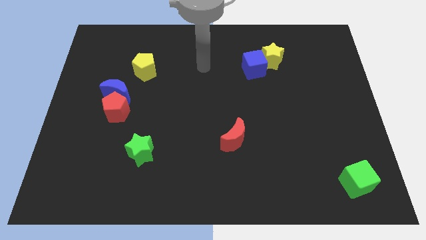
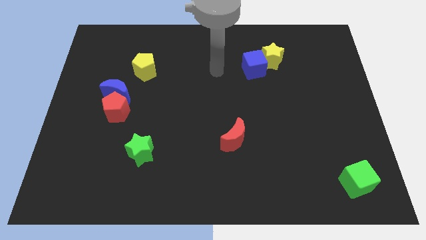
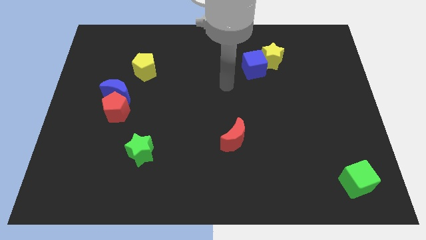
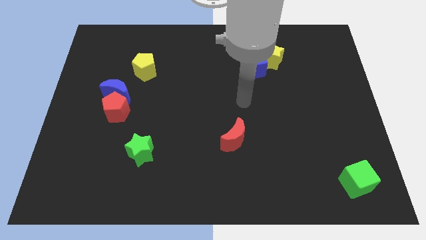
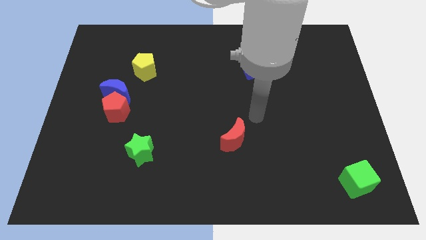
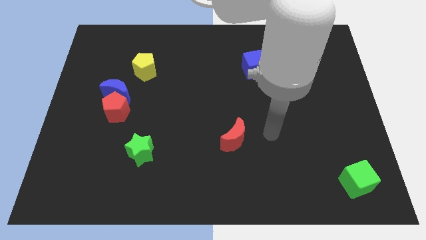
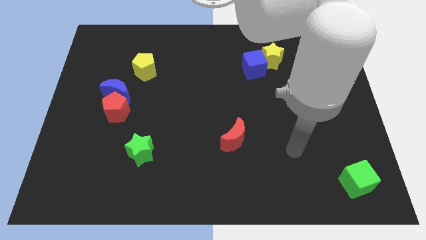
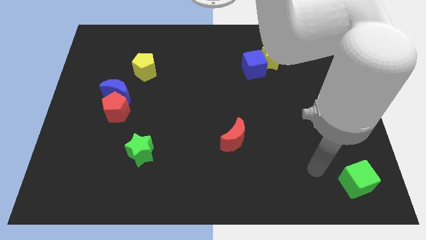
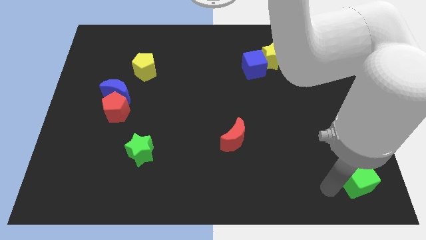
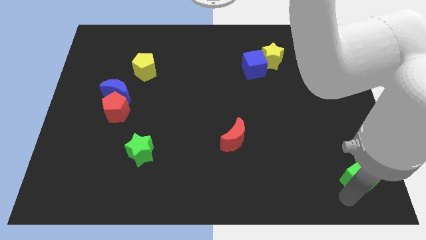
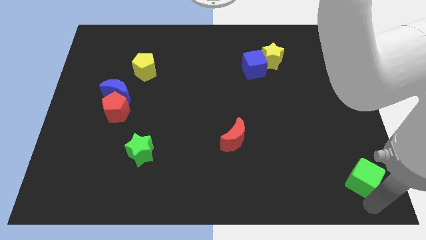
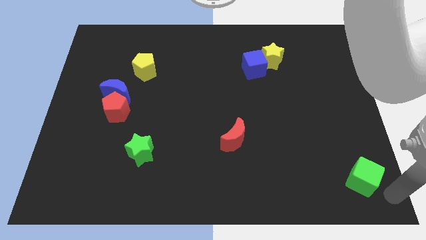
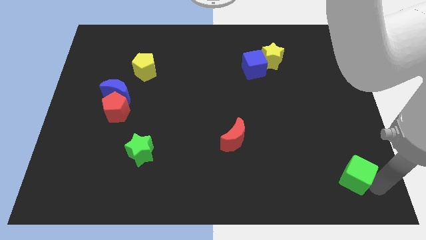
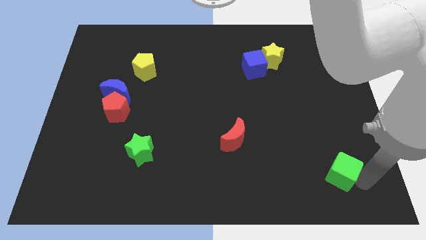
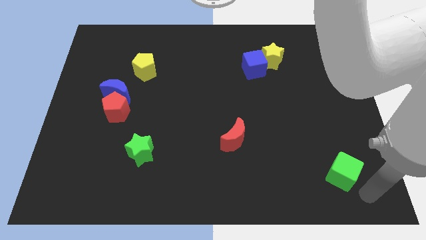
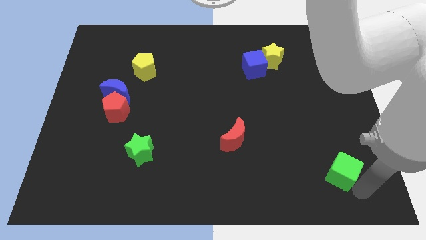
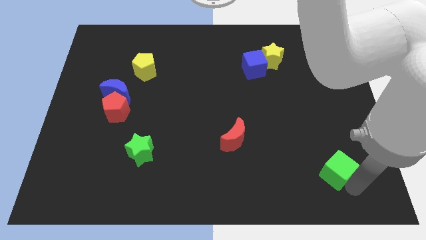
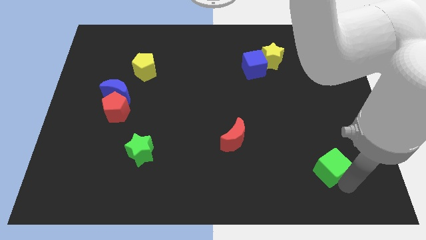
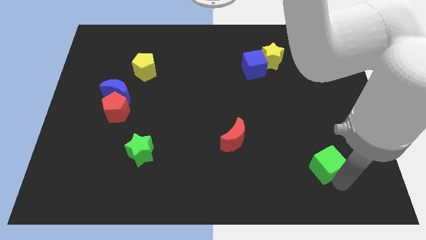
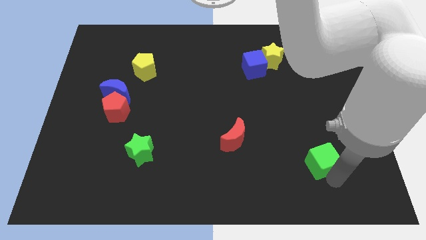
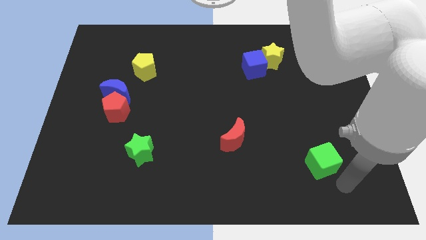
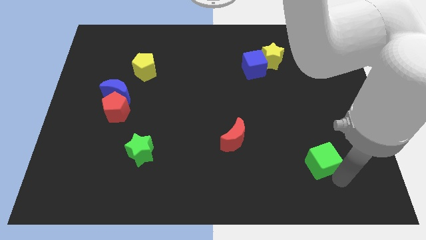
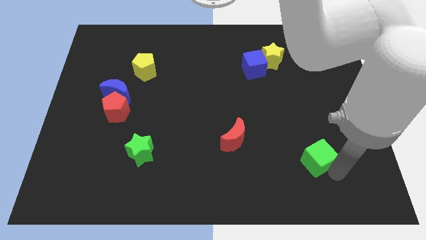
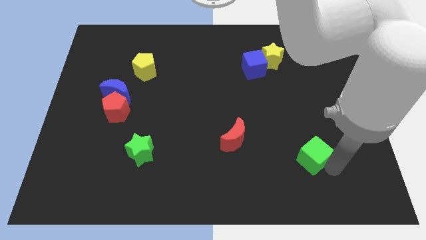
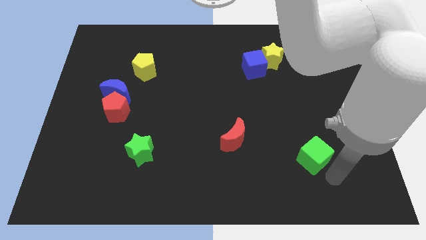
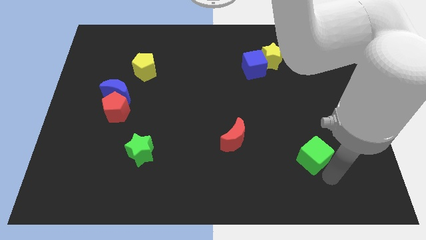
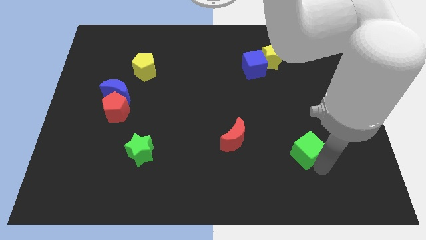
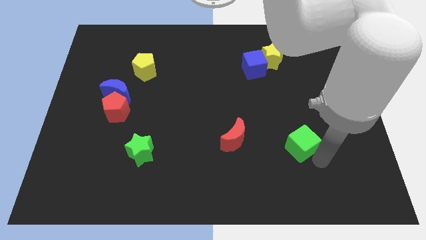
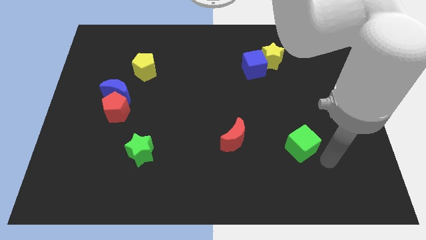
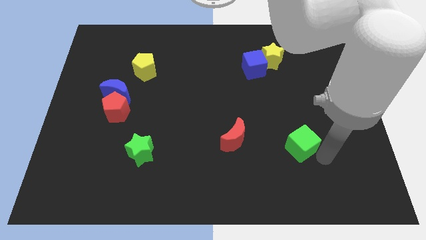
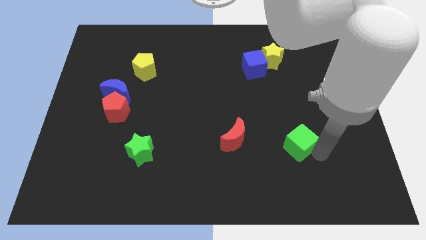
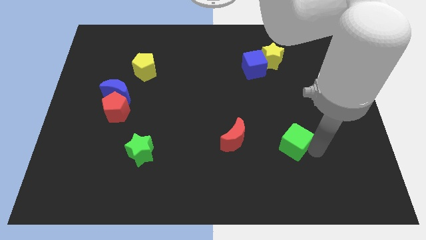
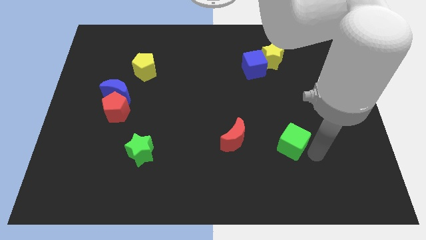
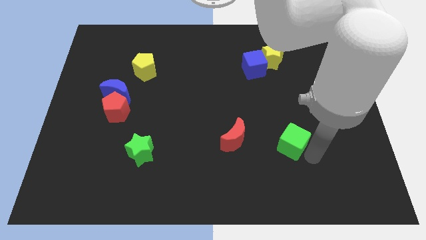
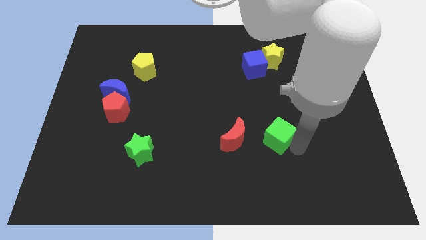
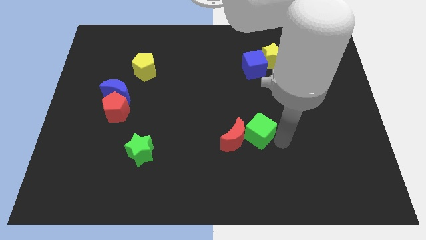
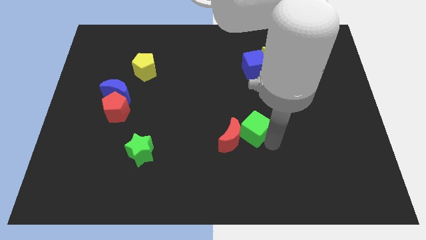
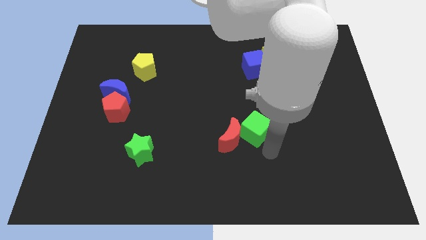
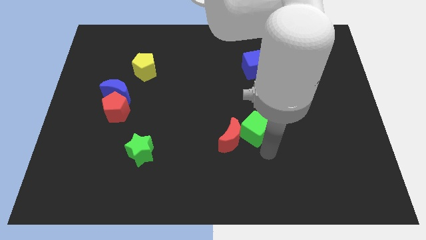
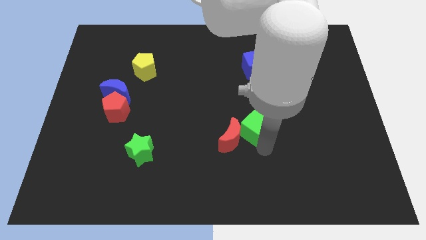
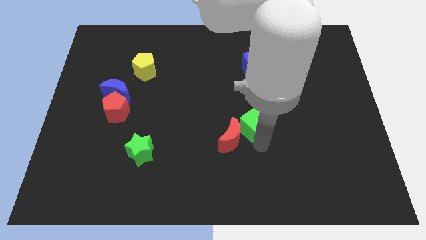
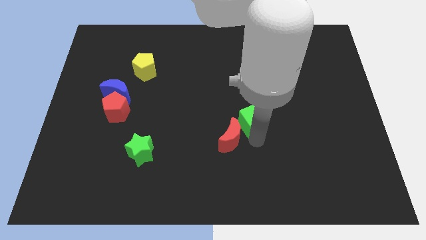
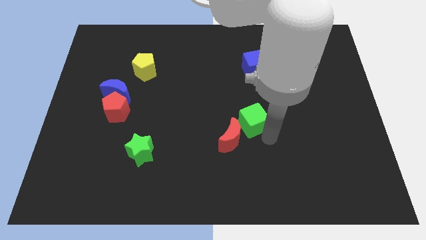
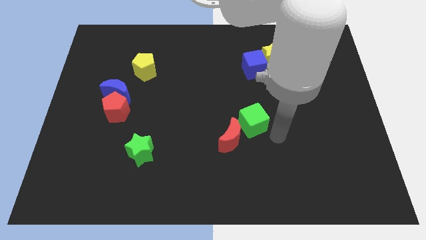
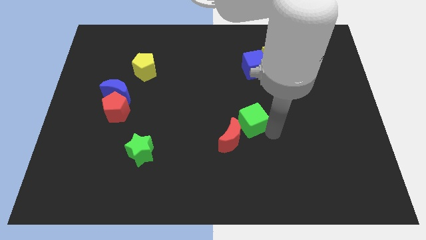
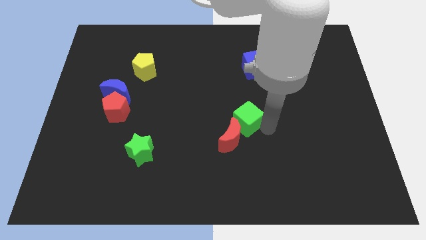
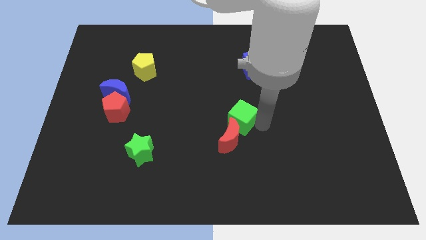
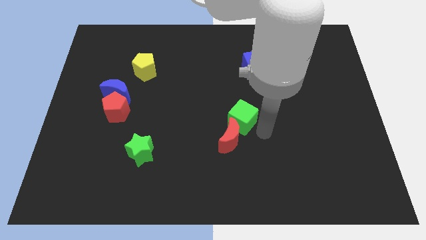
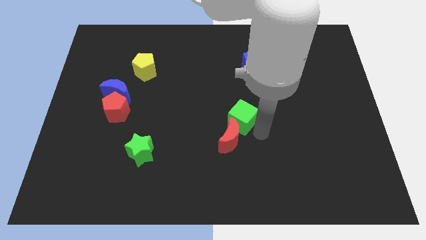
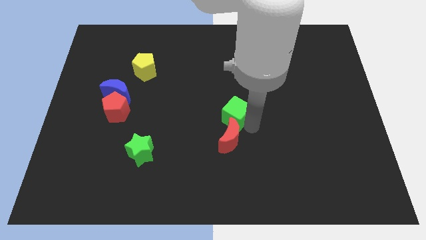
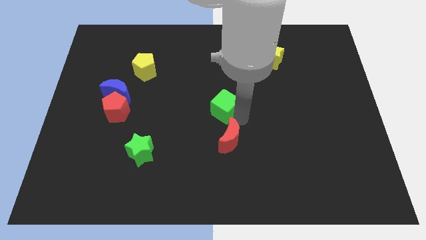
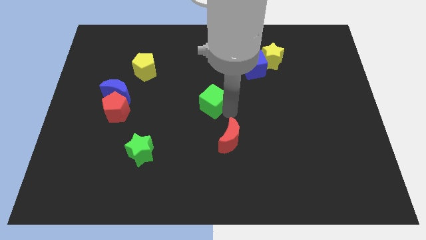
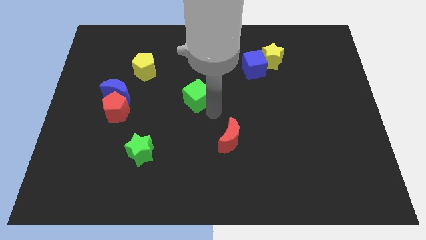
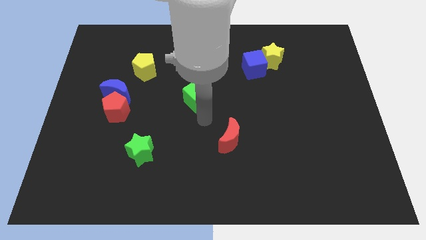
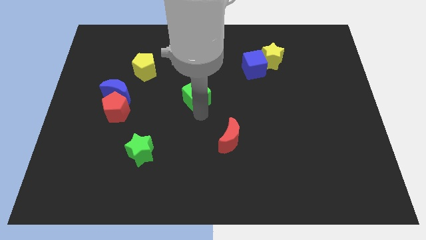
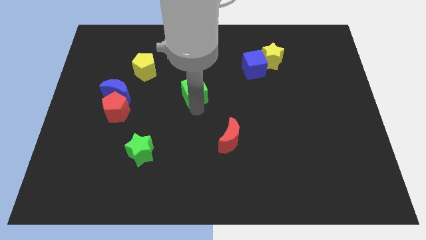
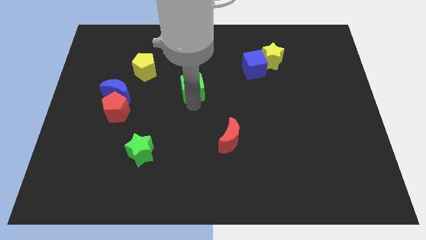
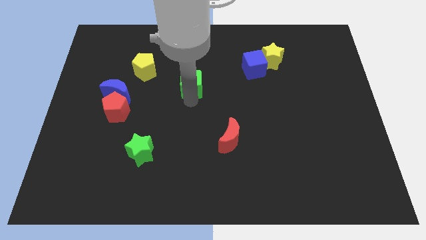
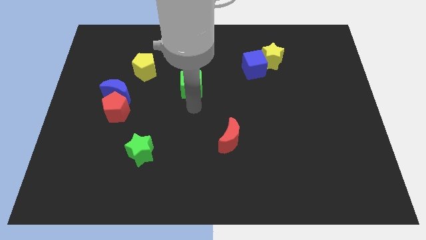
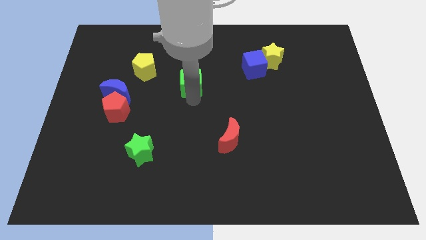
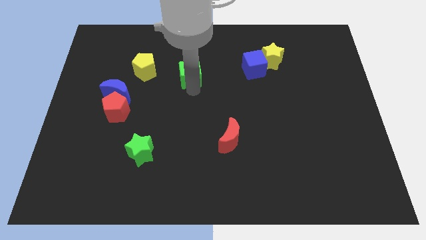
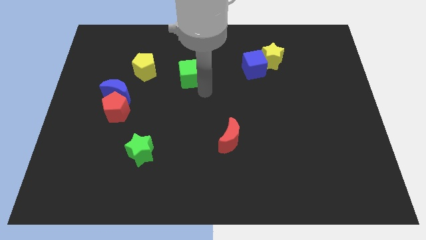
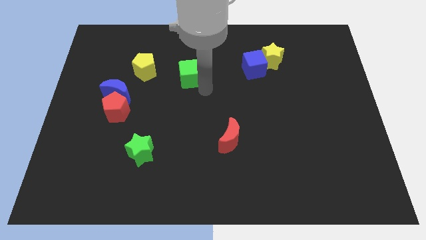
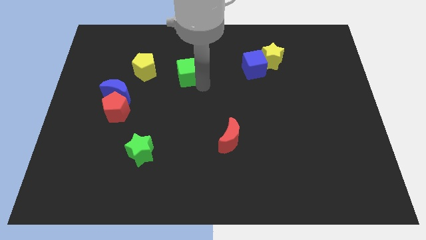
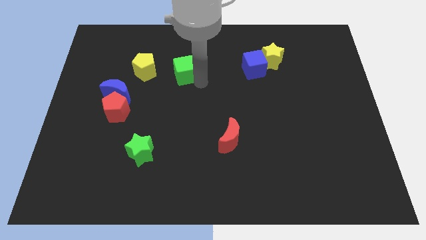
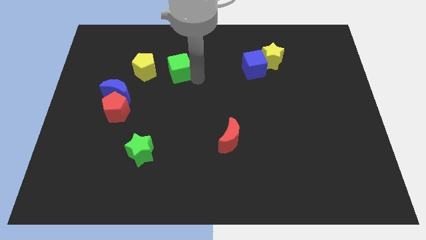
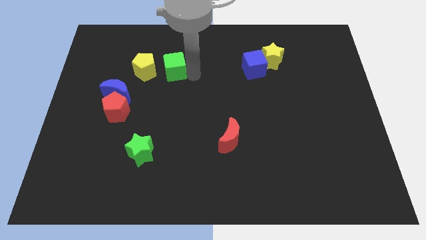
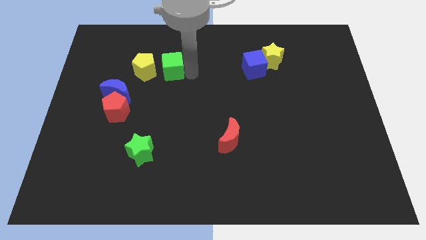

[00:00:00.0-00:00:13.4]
slide the green cube to the top right side of the yellow pentagon
